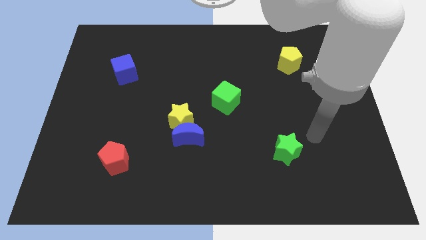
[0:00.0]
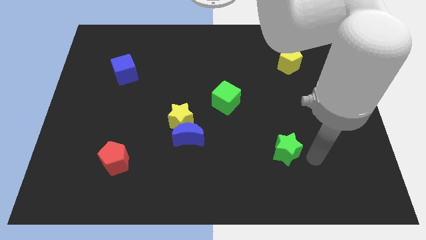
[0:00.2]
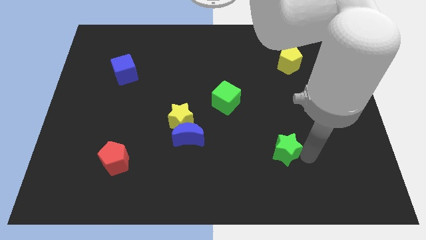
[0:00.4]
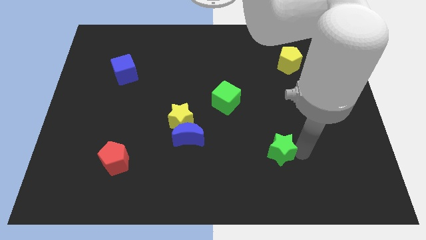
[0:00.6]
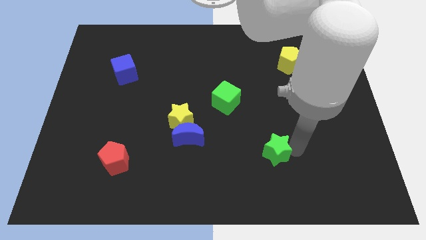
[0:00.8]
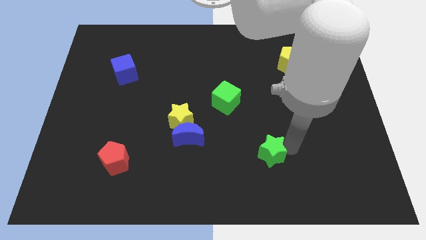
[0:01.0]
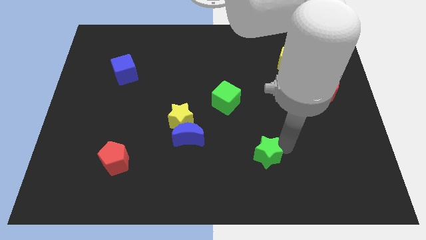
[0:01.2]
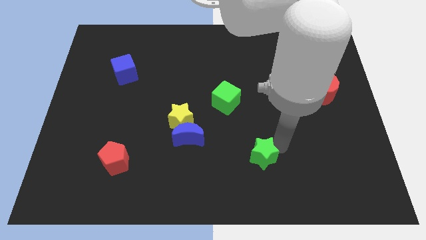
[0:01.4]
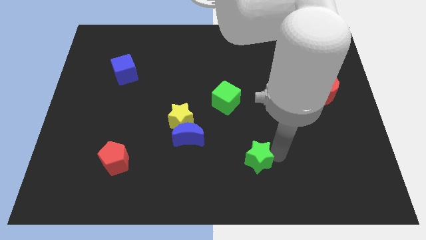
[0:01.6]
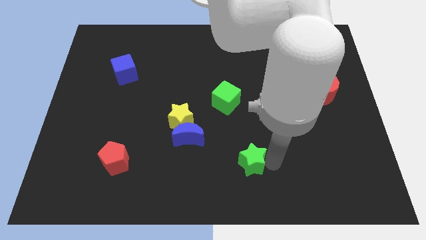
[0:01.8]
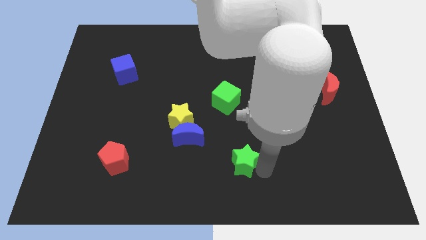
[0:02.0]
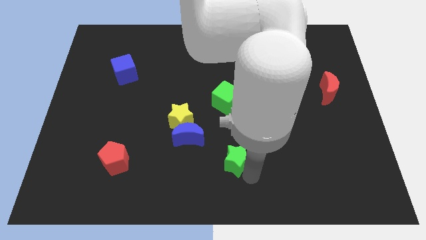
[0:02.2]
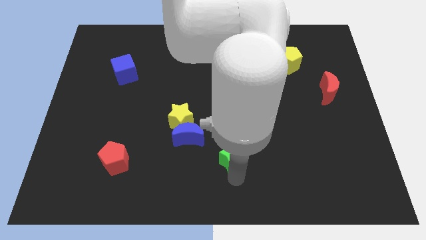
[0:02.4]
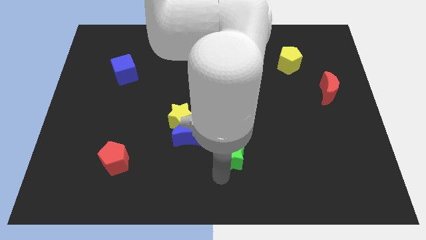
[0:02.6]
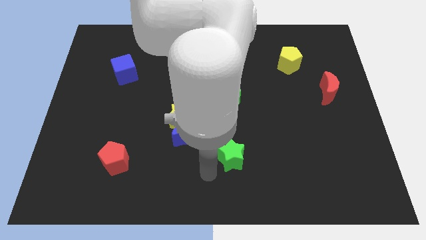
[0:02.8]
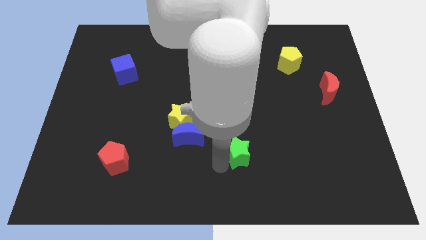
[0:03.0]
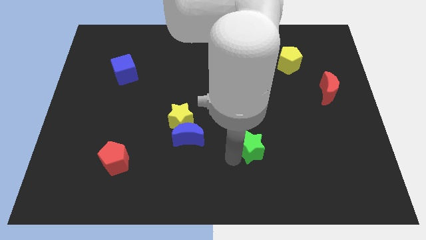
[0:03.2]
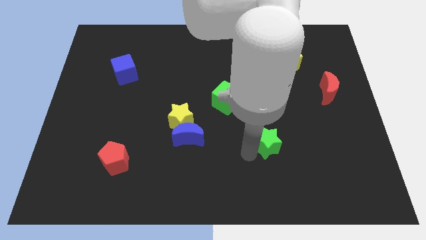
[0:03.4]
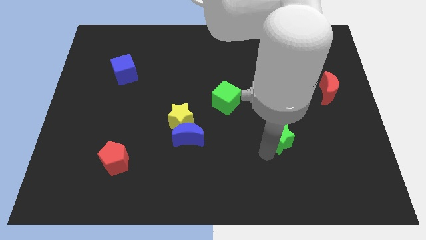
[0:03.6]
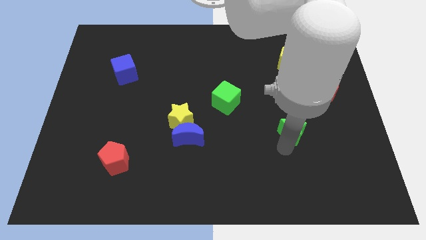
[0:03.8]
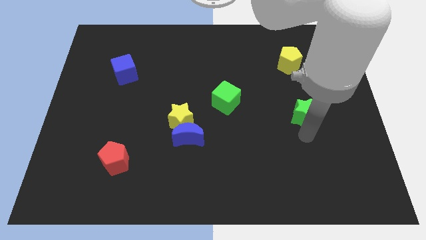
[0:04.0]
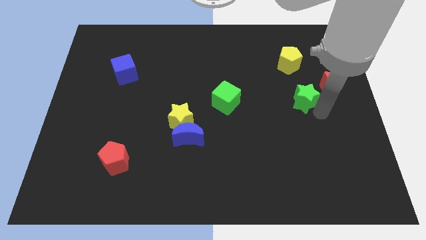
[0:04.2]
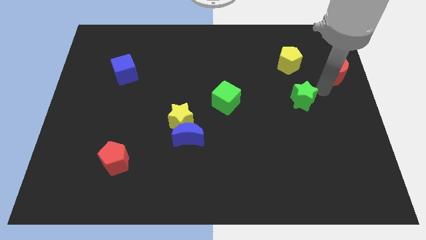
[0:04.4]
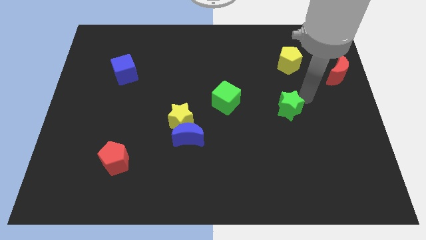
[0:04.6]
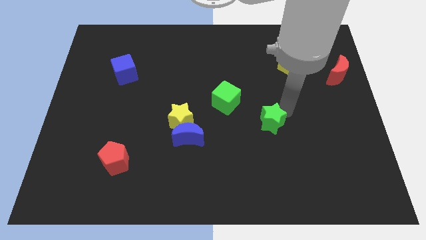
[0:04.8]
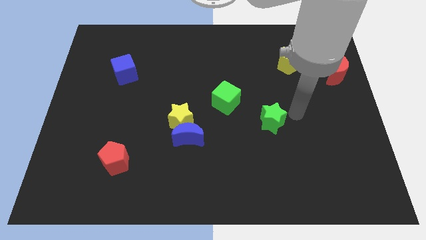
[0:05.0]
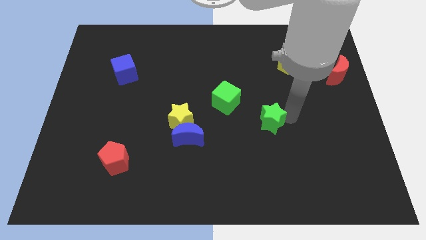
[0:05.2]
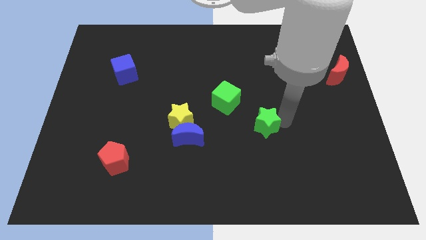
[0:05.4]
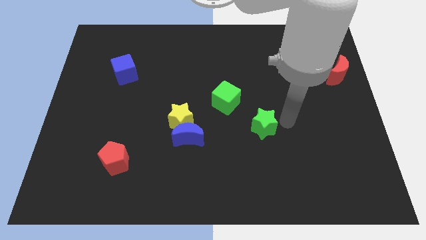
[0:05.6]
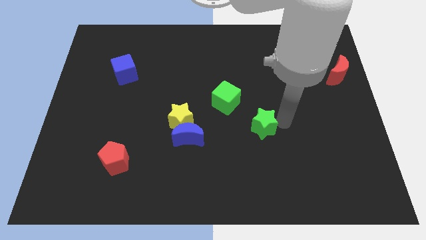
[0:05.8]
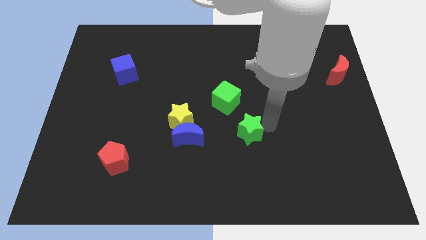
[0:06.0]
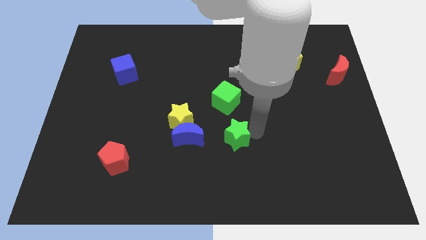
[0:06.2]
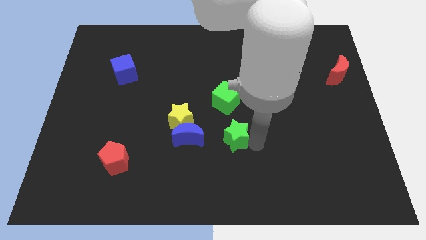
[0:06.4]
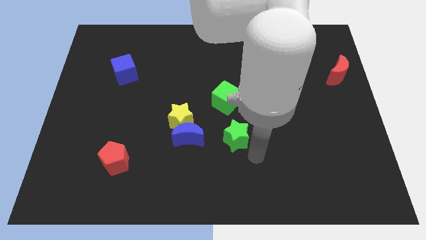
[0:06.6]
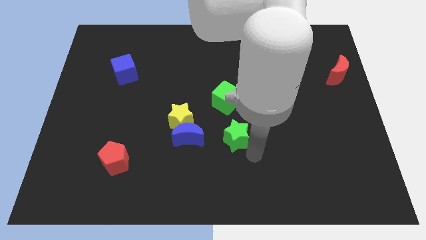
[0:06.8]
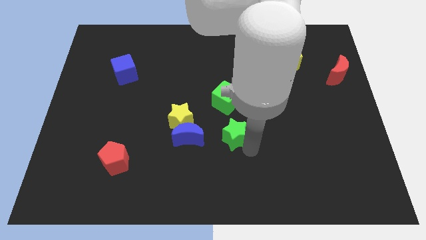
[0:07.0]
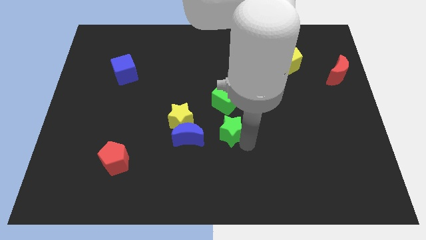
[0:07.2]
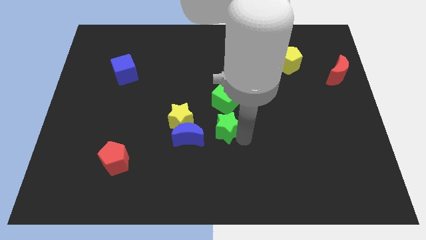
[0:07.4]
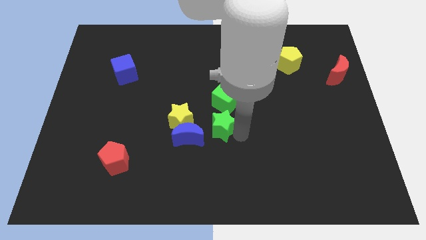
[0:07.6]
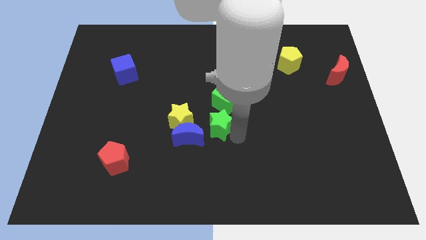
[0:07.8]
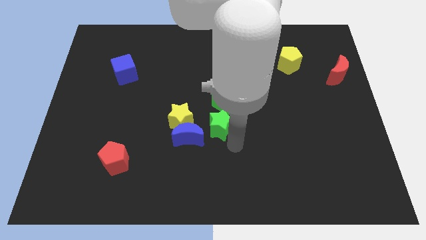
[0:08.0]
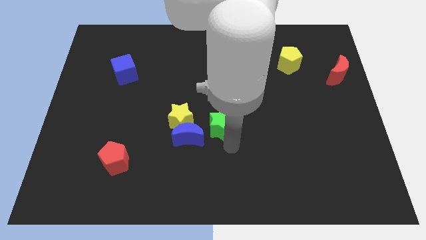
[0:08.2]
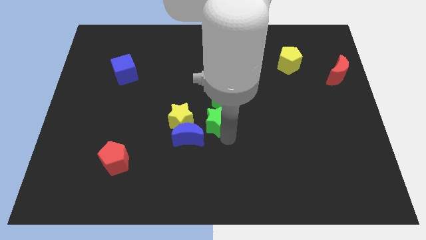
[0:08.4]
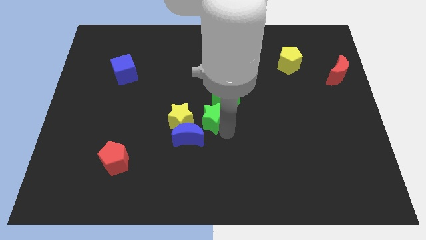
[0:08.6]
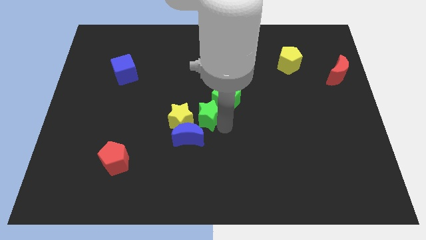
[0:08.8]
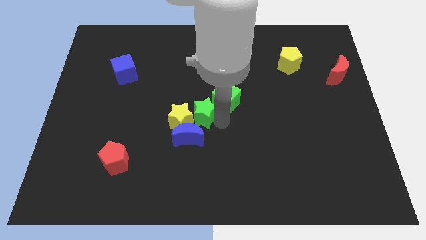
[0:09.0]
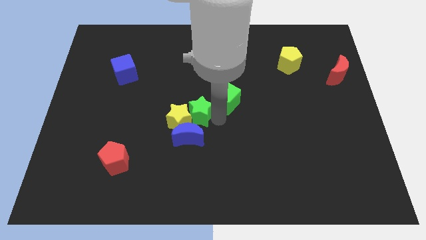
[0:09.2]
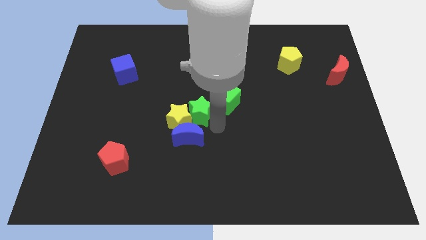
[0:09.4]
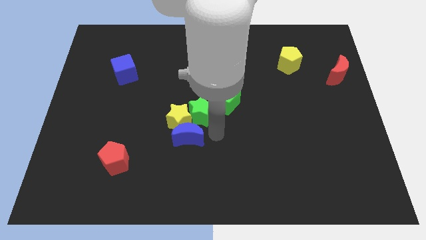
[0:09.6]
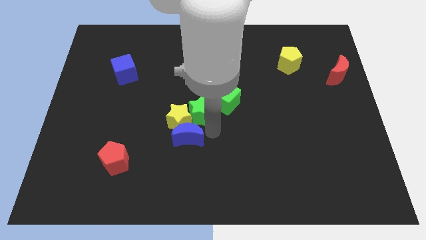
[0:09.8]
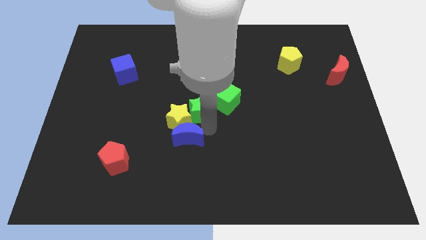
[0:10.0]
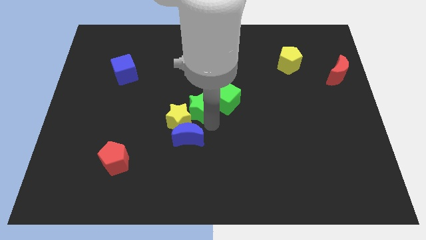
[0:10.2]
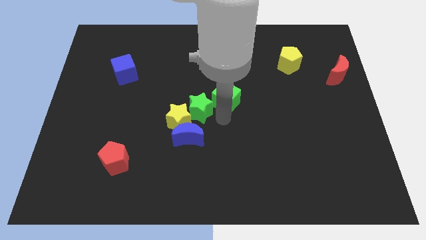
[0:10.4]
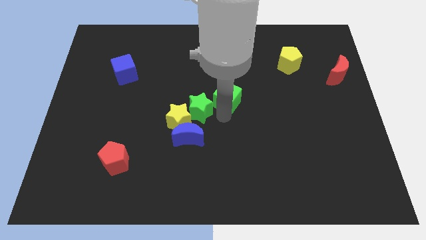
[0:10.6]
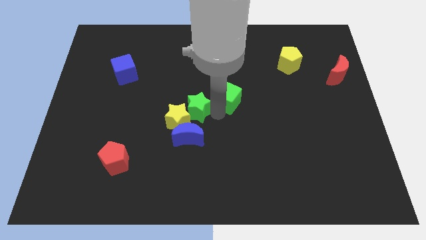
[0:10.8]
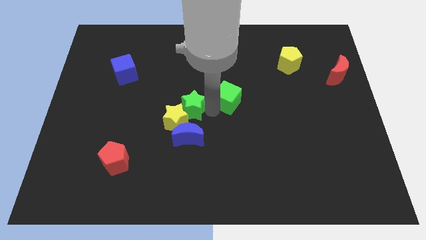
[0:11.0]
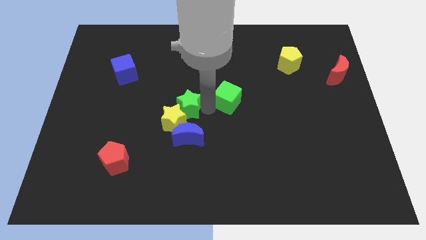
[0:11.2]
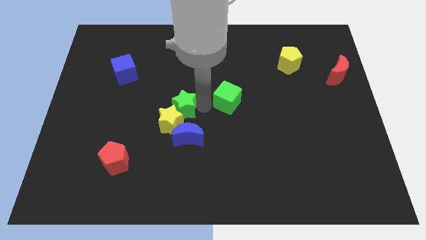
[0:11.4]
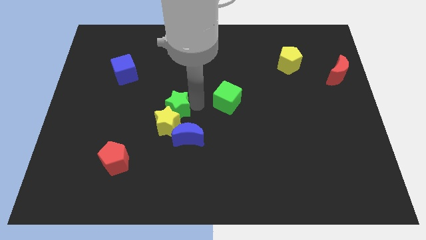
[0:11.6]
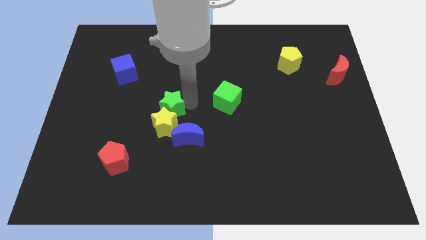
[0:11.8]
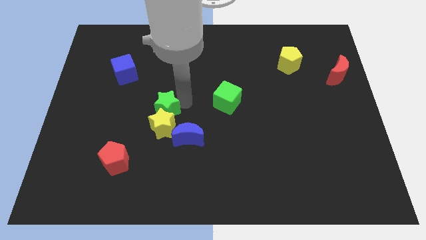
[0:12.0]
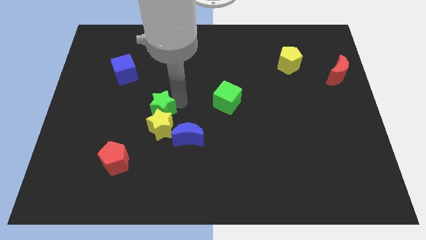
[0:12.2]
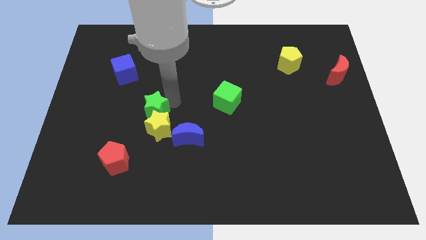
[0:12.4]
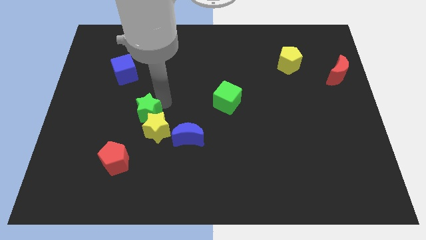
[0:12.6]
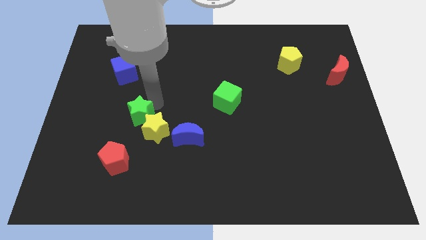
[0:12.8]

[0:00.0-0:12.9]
put the green star to the left side of the yellow star
